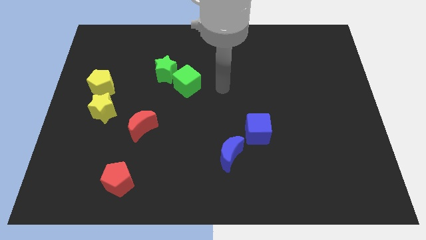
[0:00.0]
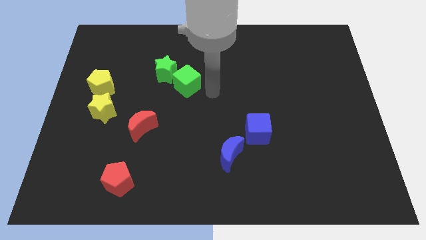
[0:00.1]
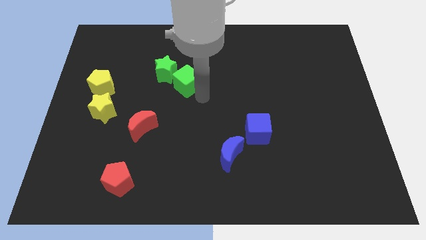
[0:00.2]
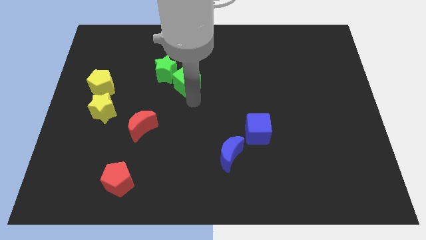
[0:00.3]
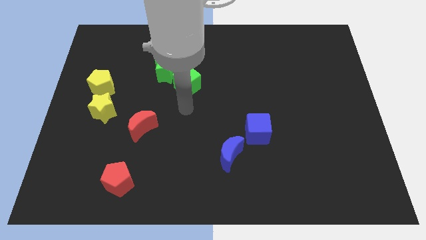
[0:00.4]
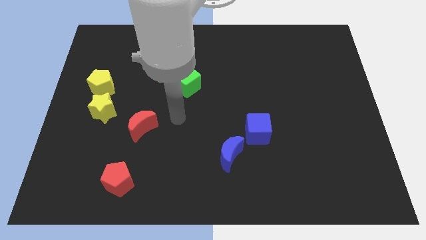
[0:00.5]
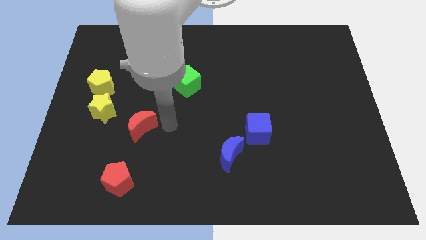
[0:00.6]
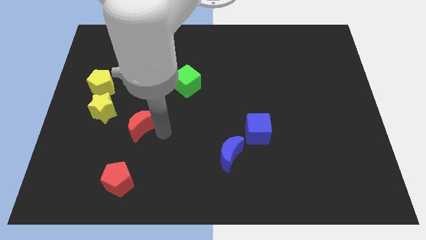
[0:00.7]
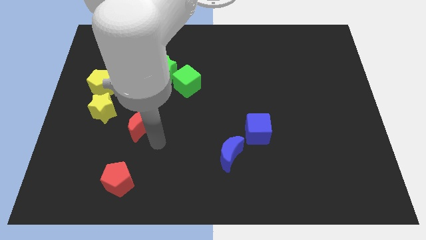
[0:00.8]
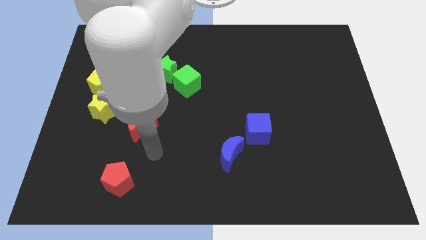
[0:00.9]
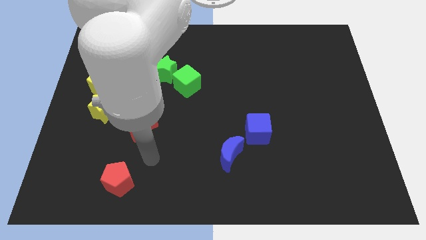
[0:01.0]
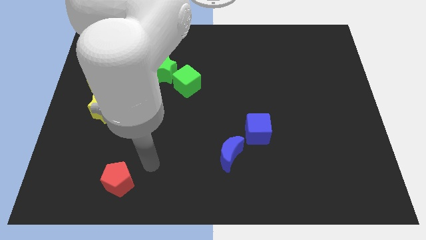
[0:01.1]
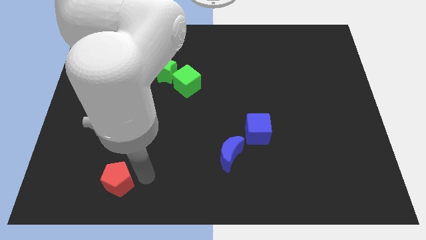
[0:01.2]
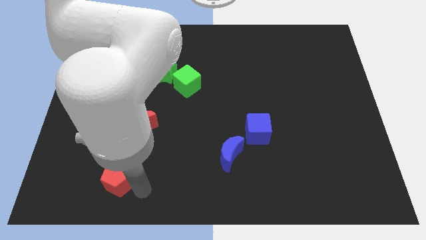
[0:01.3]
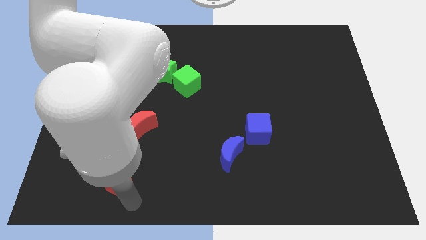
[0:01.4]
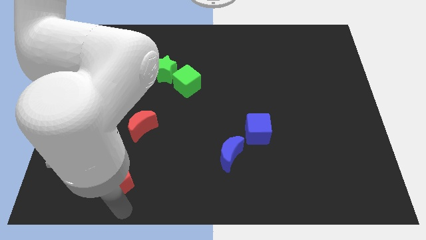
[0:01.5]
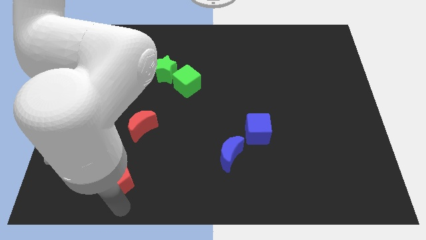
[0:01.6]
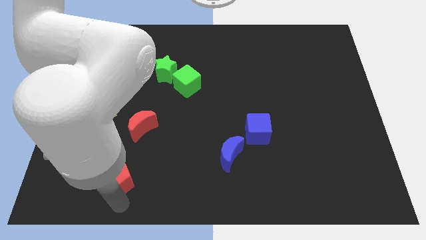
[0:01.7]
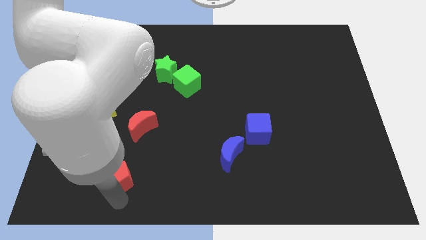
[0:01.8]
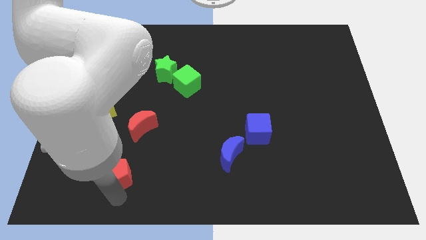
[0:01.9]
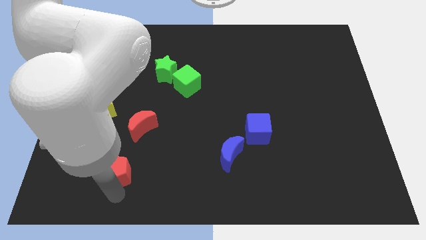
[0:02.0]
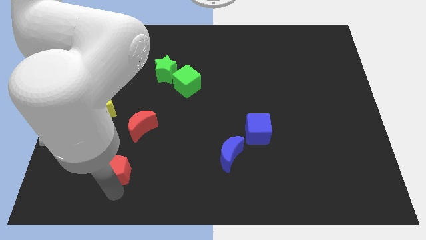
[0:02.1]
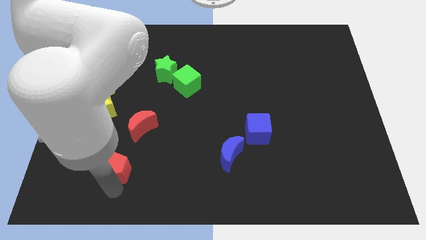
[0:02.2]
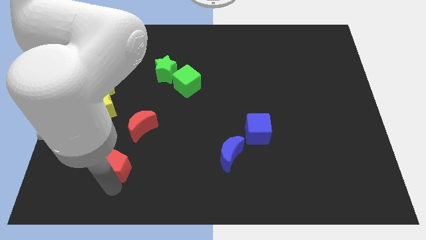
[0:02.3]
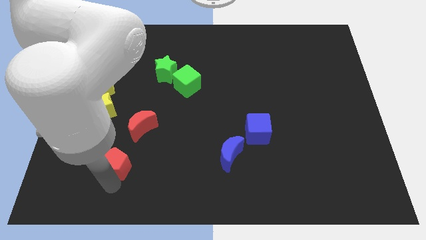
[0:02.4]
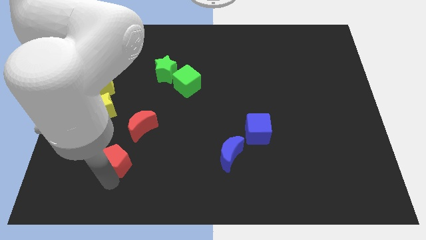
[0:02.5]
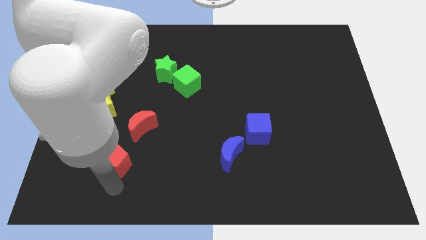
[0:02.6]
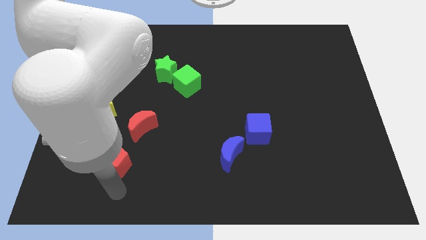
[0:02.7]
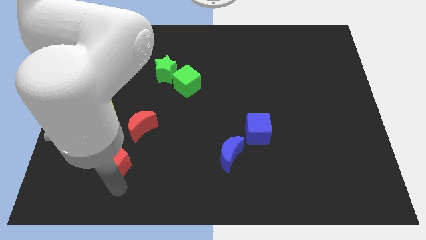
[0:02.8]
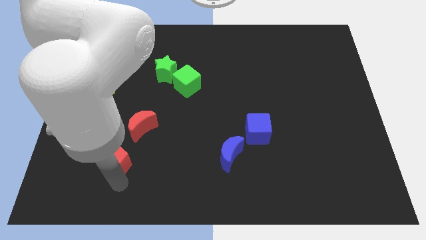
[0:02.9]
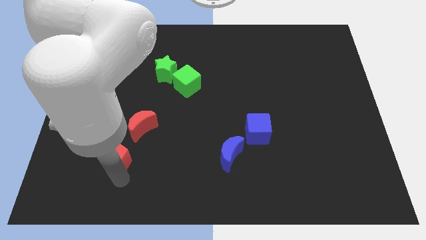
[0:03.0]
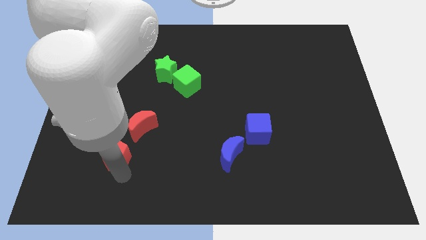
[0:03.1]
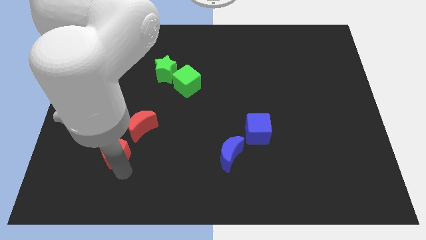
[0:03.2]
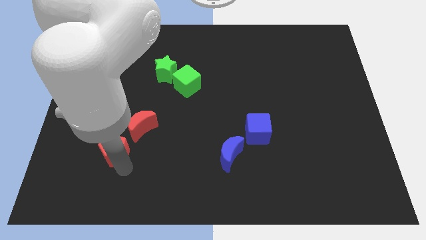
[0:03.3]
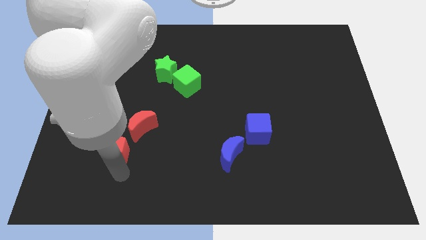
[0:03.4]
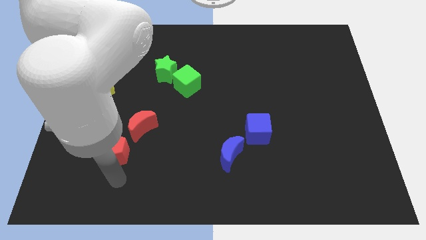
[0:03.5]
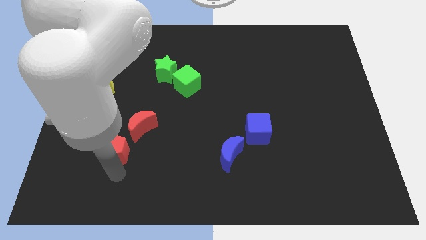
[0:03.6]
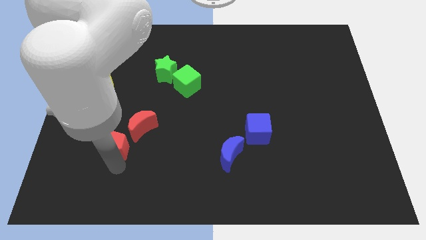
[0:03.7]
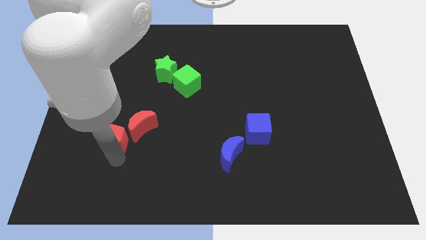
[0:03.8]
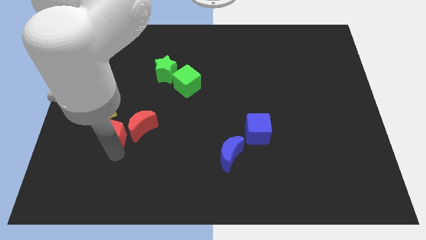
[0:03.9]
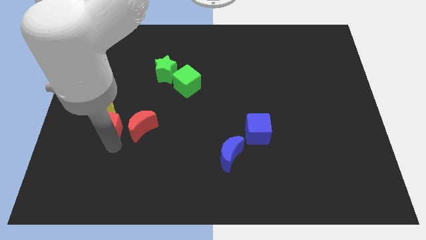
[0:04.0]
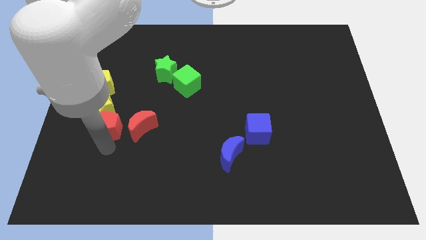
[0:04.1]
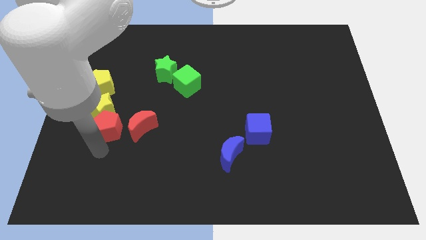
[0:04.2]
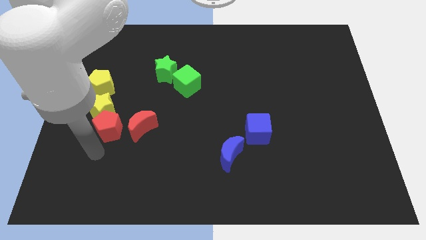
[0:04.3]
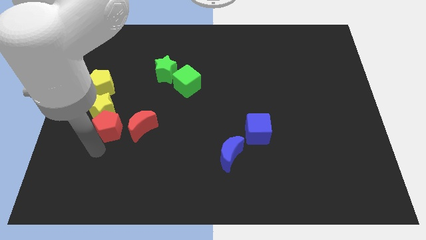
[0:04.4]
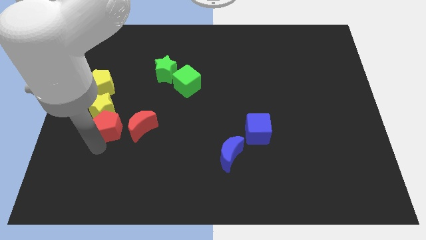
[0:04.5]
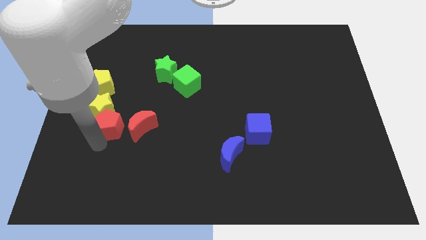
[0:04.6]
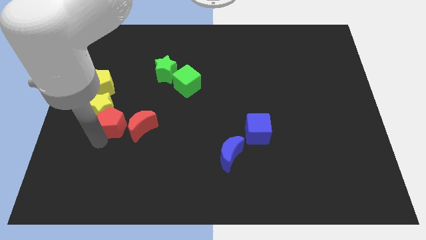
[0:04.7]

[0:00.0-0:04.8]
move the red pentagon to the top left side of the red moon

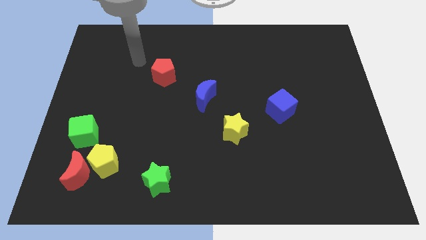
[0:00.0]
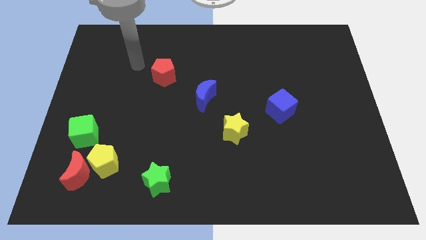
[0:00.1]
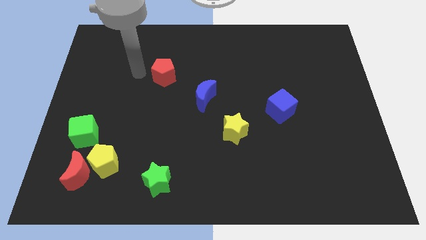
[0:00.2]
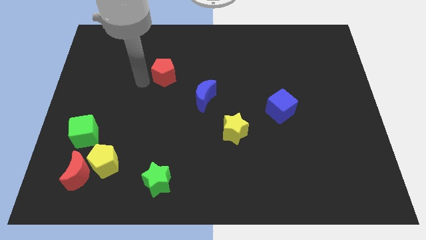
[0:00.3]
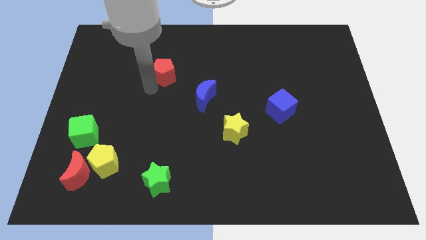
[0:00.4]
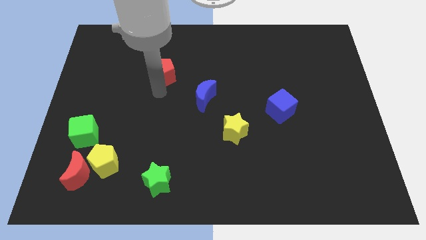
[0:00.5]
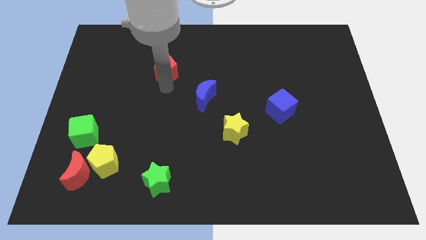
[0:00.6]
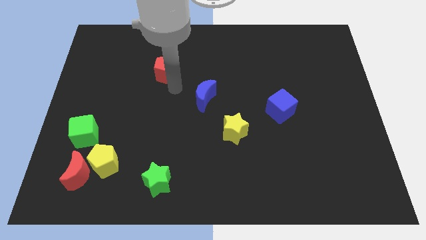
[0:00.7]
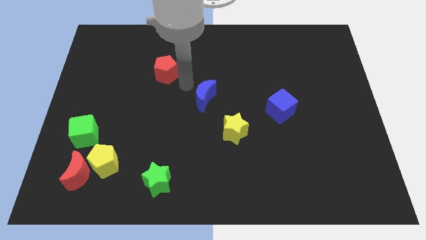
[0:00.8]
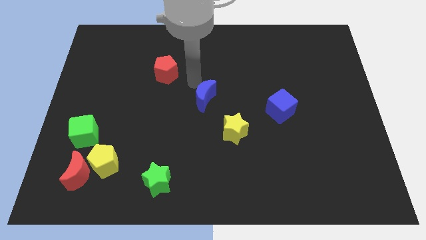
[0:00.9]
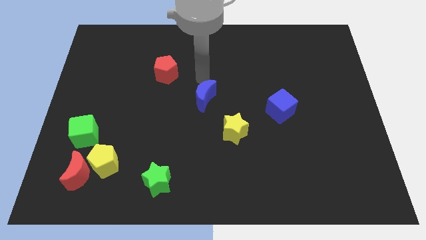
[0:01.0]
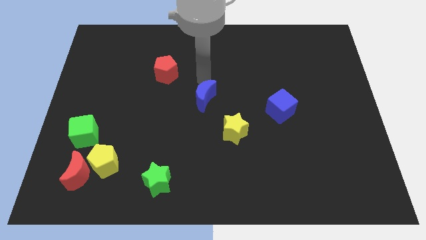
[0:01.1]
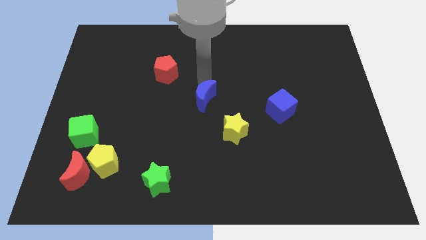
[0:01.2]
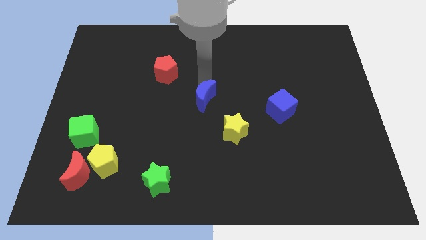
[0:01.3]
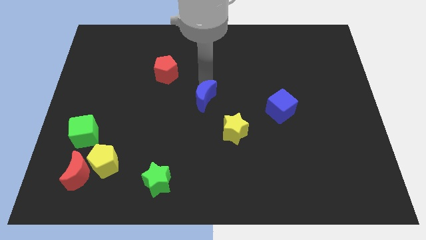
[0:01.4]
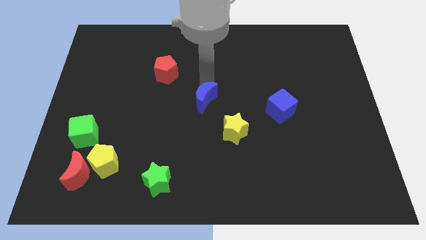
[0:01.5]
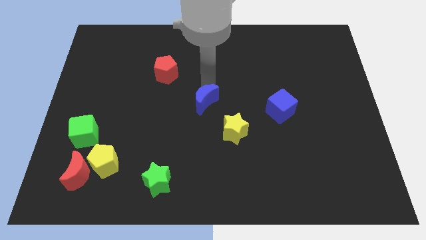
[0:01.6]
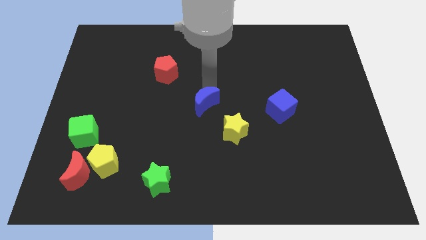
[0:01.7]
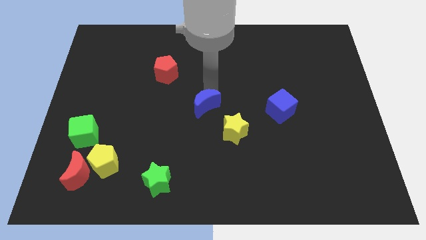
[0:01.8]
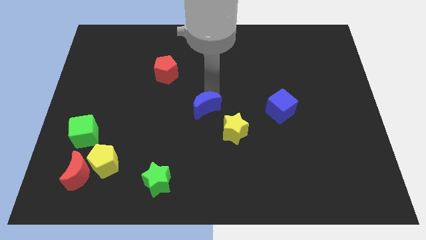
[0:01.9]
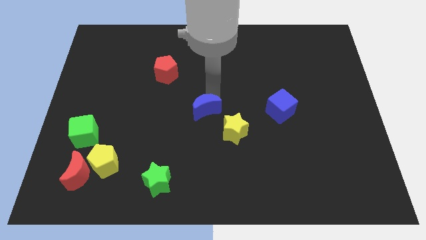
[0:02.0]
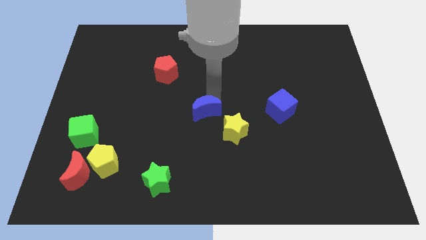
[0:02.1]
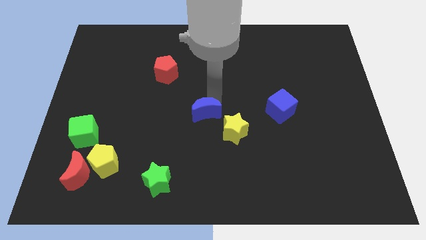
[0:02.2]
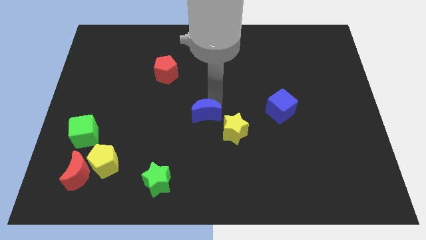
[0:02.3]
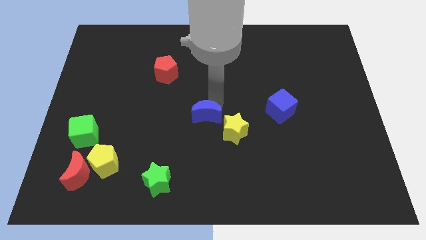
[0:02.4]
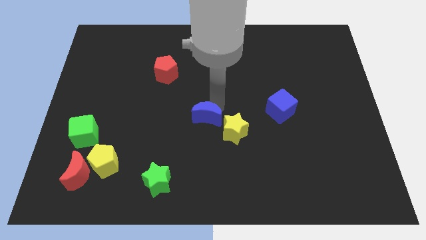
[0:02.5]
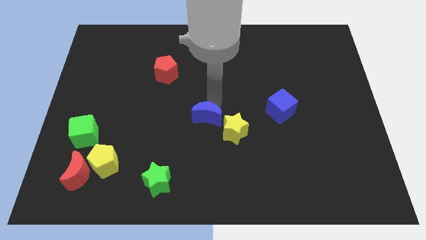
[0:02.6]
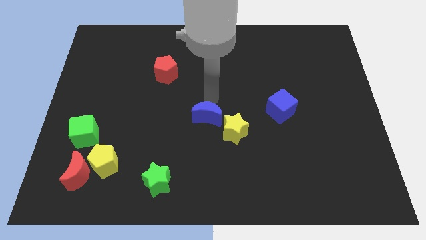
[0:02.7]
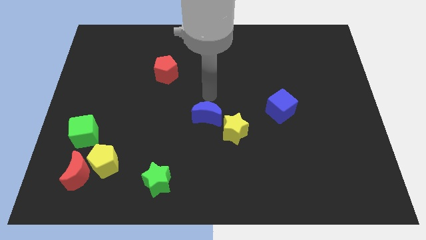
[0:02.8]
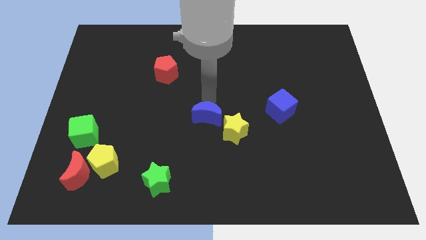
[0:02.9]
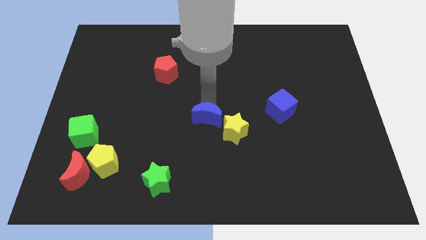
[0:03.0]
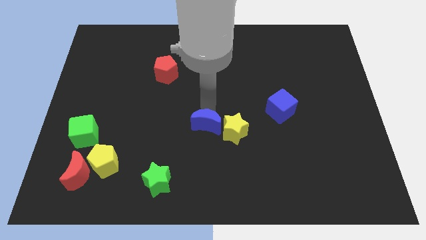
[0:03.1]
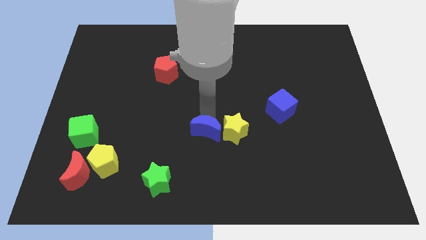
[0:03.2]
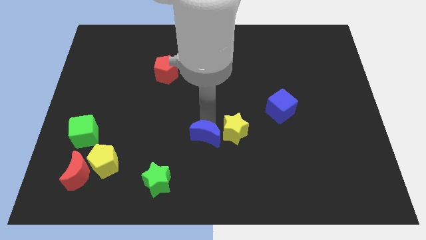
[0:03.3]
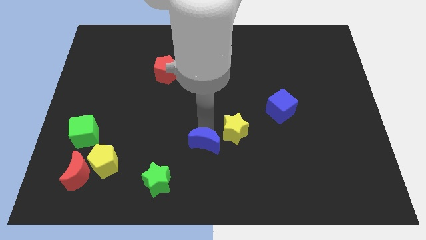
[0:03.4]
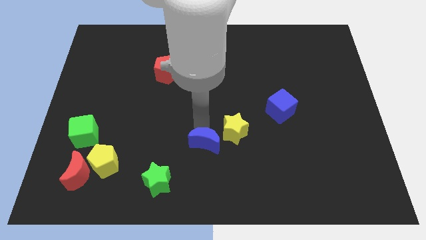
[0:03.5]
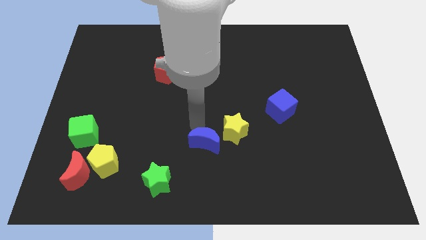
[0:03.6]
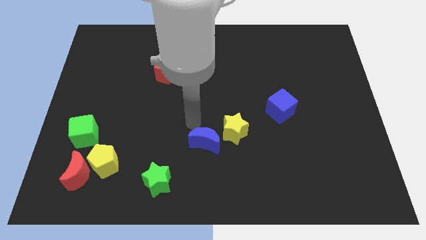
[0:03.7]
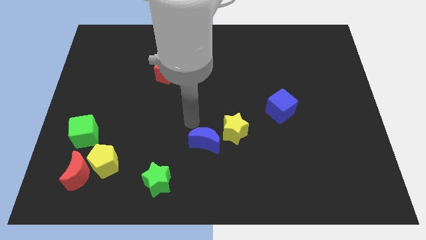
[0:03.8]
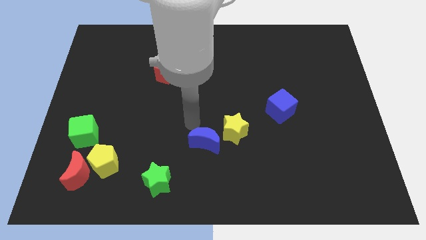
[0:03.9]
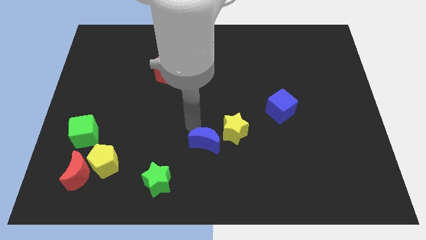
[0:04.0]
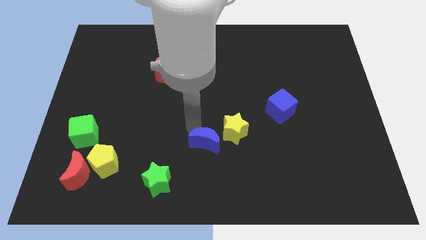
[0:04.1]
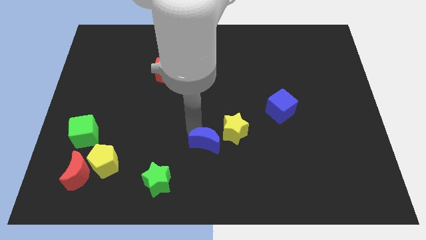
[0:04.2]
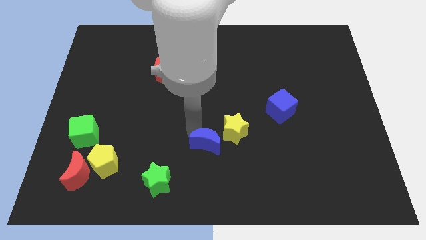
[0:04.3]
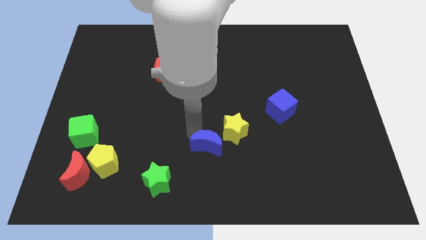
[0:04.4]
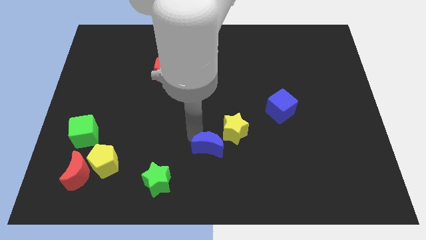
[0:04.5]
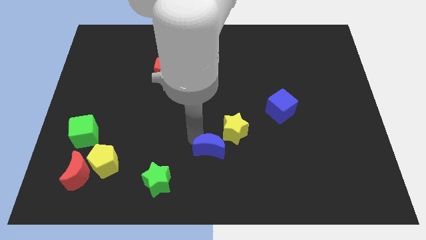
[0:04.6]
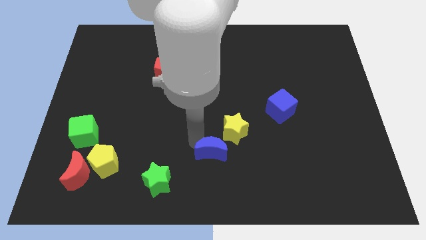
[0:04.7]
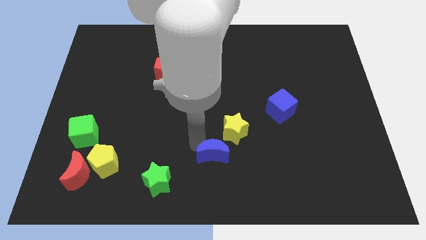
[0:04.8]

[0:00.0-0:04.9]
slide the blue moon below the yellow star
